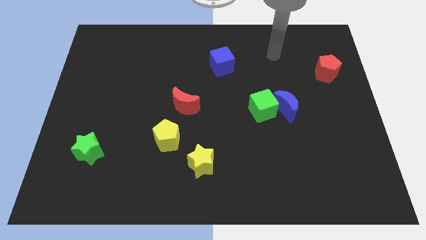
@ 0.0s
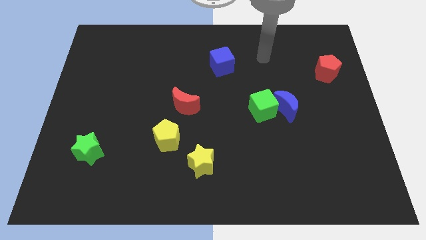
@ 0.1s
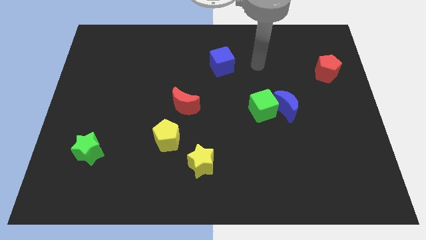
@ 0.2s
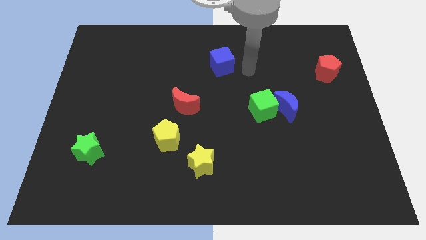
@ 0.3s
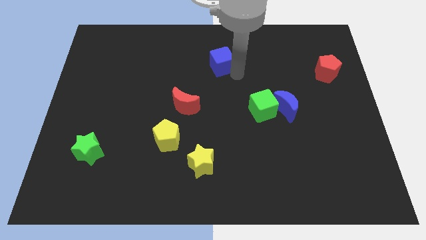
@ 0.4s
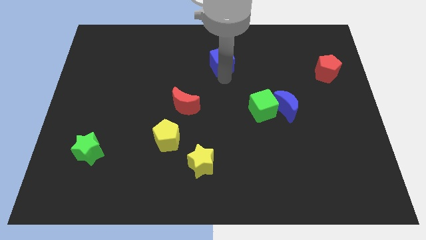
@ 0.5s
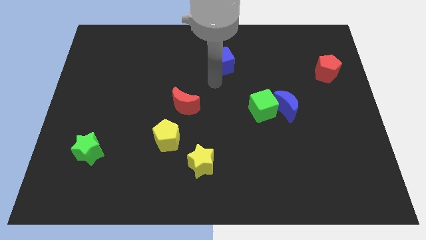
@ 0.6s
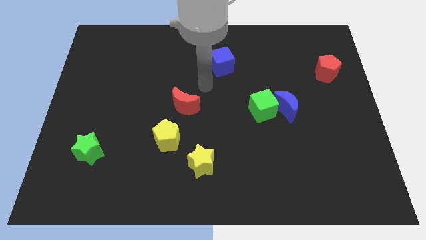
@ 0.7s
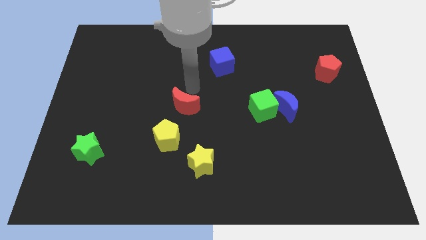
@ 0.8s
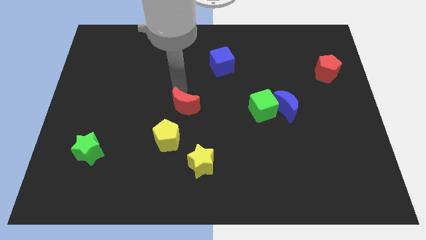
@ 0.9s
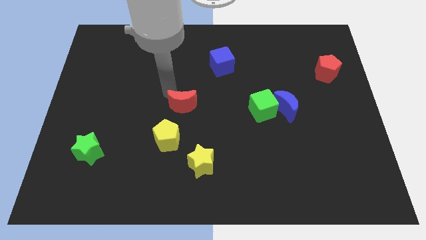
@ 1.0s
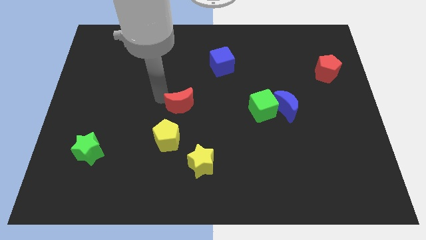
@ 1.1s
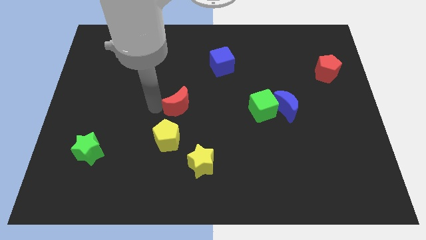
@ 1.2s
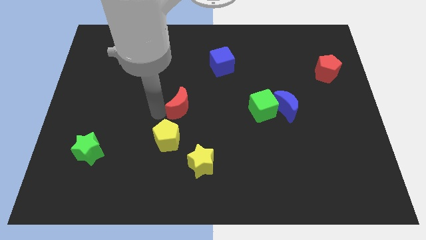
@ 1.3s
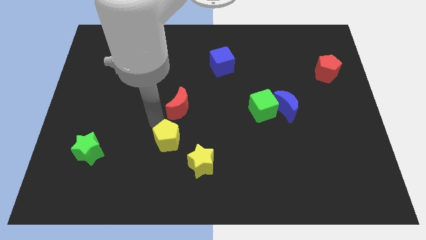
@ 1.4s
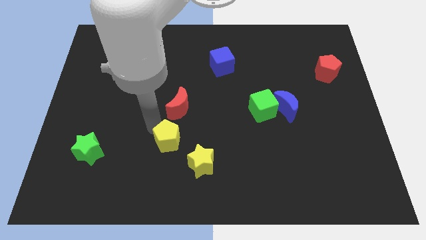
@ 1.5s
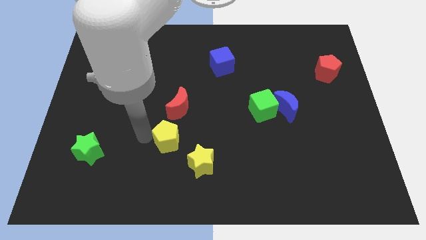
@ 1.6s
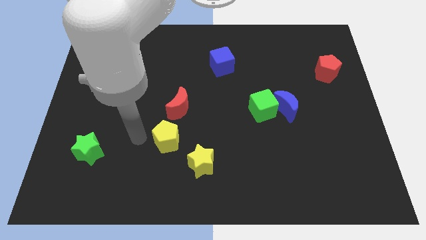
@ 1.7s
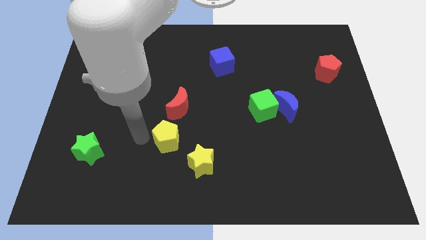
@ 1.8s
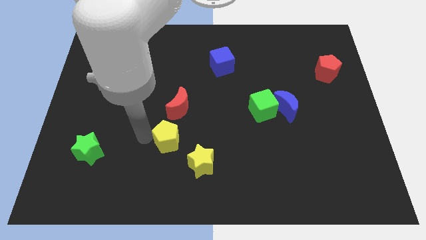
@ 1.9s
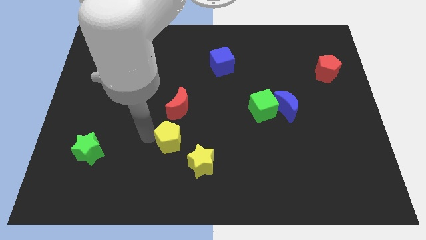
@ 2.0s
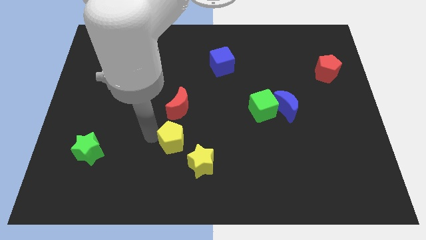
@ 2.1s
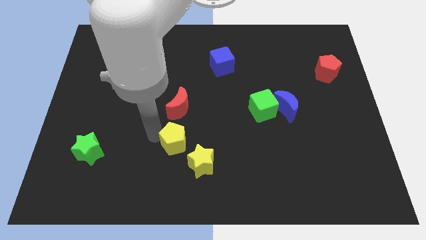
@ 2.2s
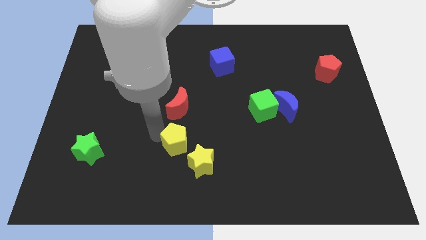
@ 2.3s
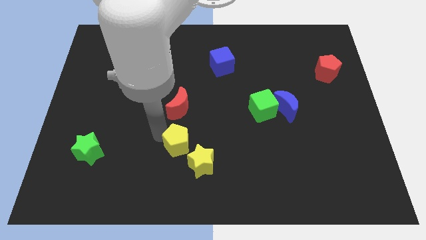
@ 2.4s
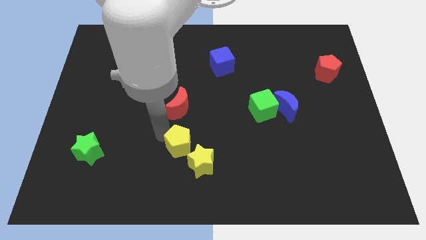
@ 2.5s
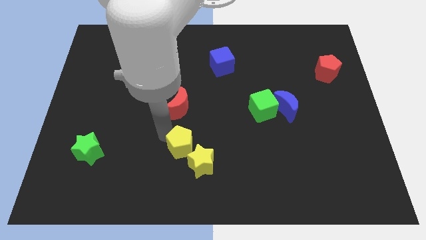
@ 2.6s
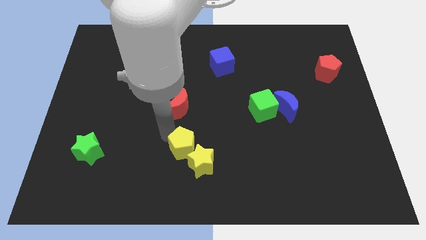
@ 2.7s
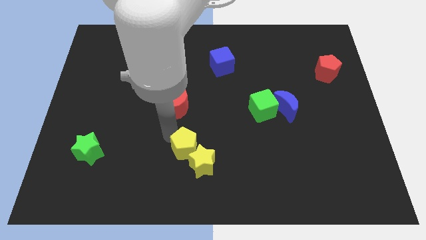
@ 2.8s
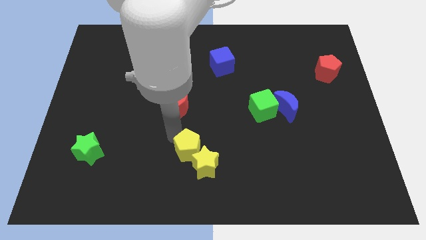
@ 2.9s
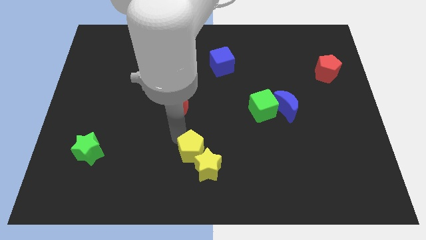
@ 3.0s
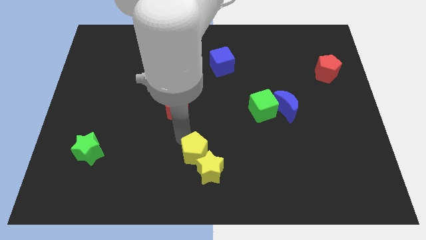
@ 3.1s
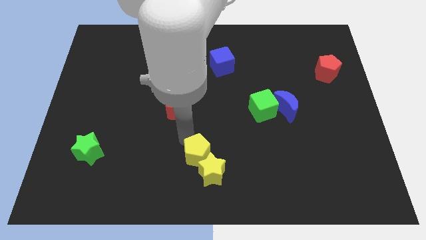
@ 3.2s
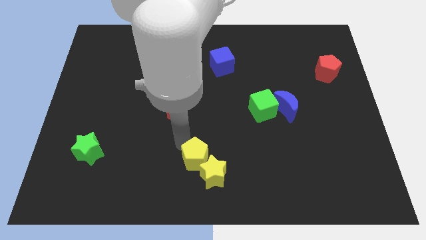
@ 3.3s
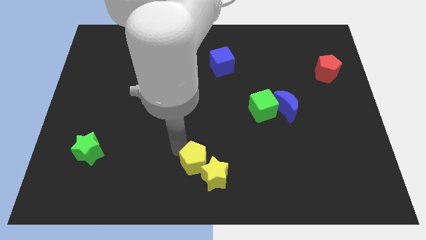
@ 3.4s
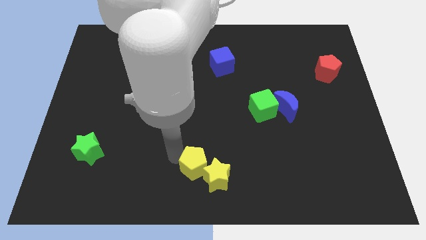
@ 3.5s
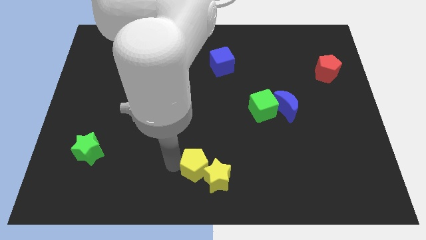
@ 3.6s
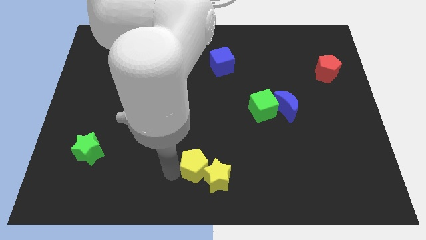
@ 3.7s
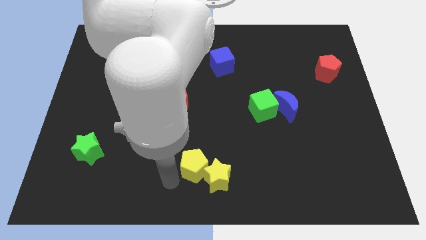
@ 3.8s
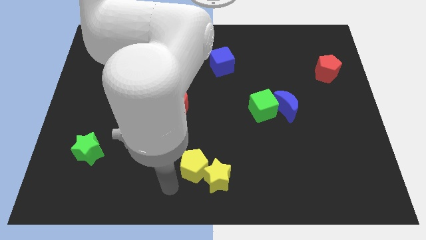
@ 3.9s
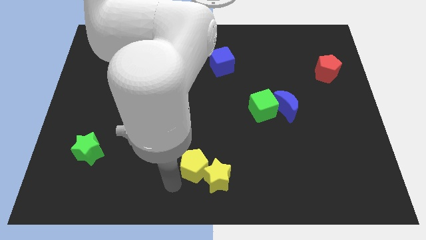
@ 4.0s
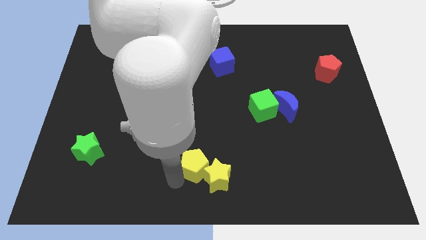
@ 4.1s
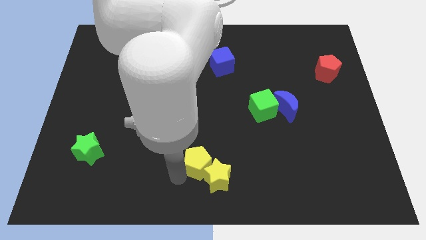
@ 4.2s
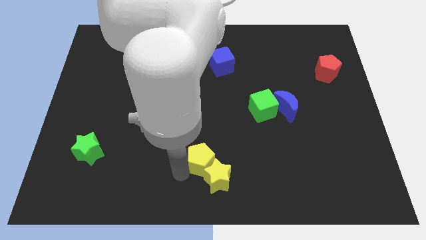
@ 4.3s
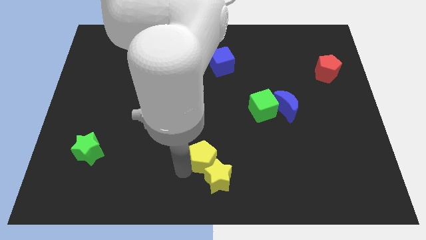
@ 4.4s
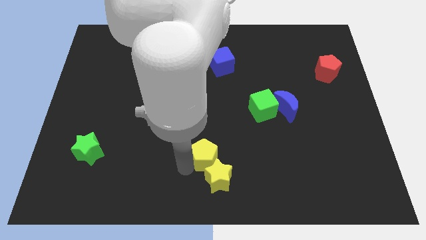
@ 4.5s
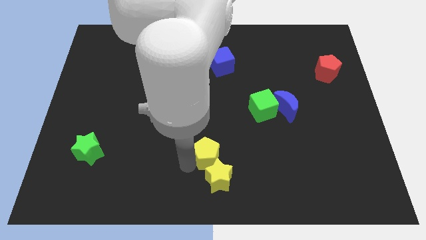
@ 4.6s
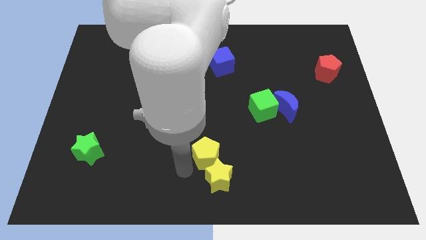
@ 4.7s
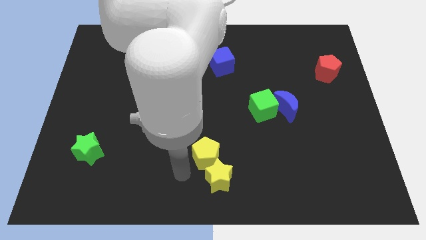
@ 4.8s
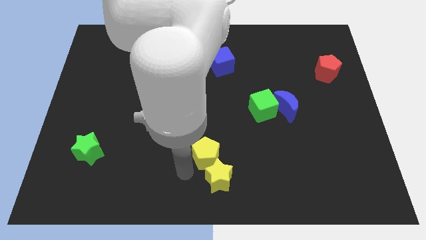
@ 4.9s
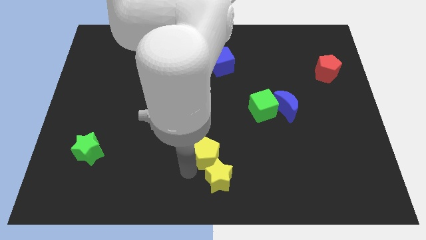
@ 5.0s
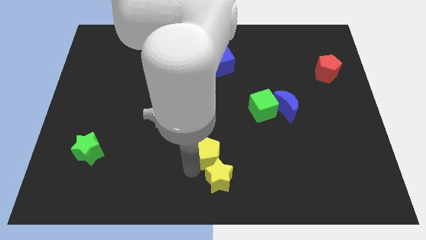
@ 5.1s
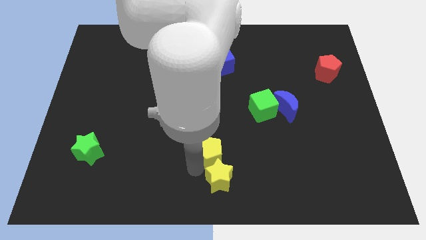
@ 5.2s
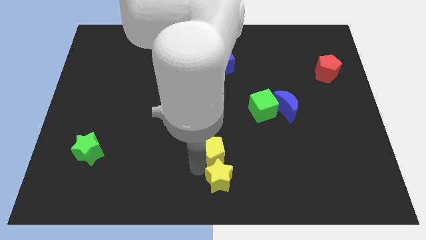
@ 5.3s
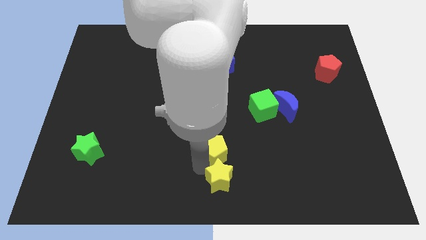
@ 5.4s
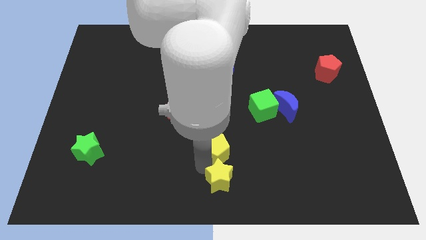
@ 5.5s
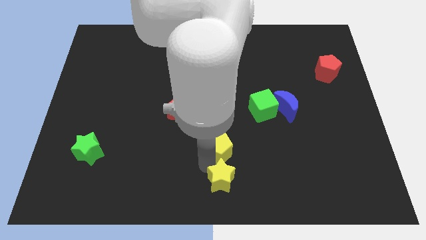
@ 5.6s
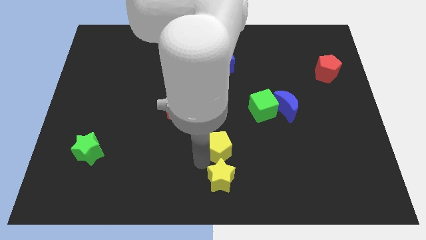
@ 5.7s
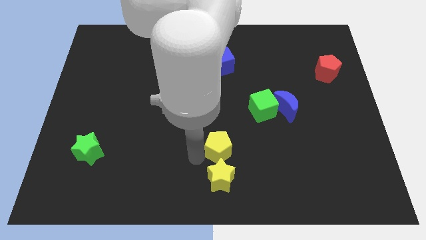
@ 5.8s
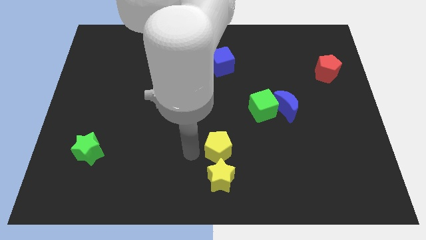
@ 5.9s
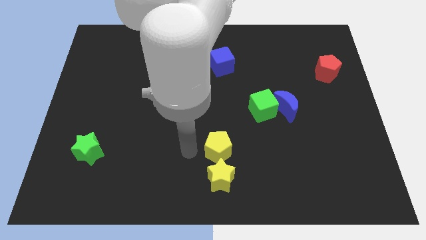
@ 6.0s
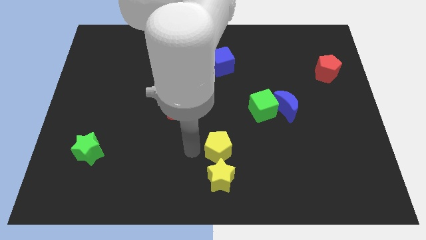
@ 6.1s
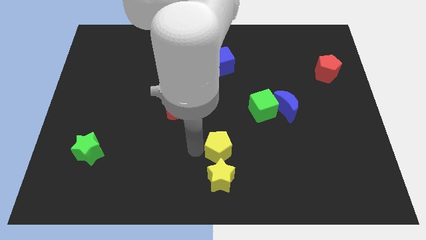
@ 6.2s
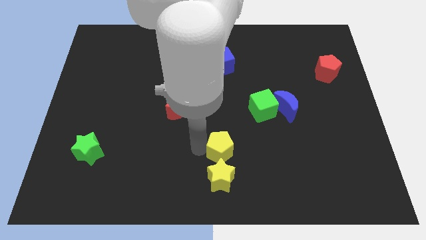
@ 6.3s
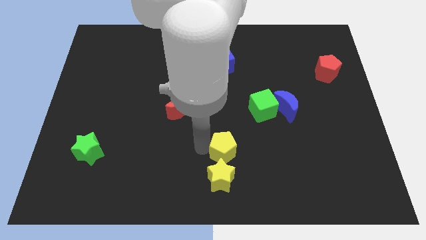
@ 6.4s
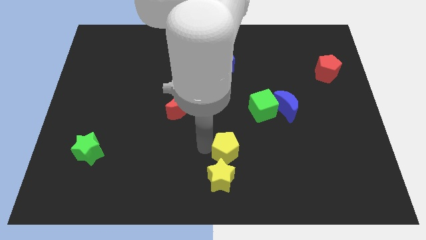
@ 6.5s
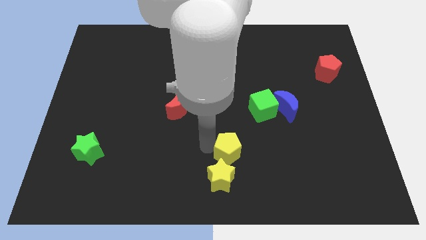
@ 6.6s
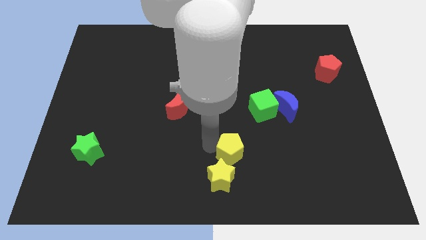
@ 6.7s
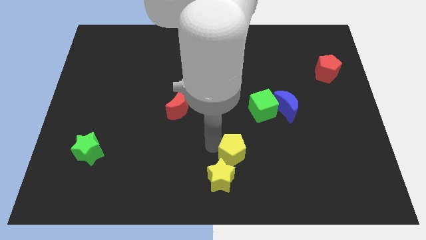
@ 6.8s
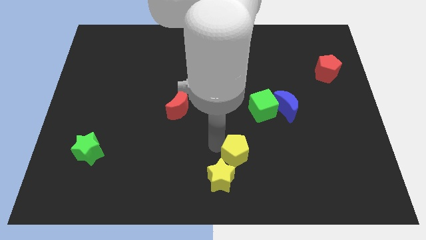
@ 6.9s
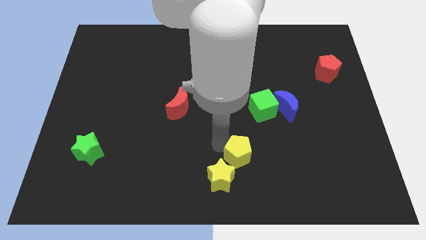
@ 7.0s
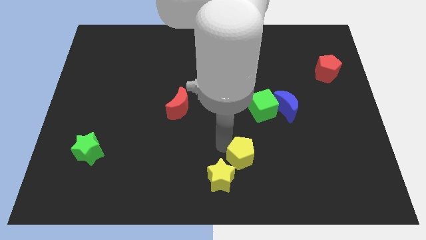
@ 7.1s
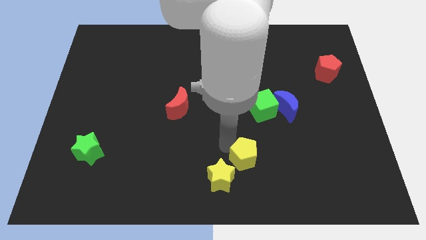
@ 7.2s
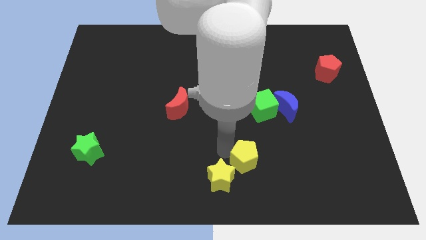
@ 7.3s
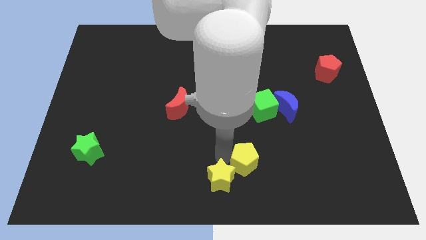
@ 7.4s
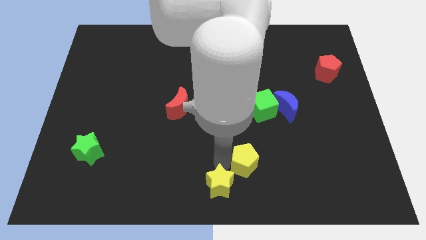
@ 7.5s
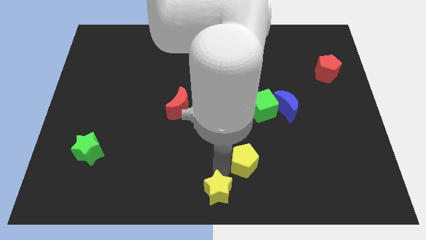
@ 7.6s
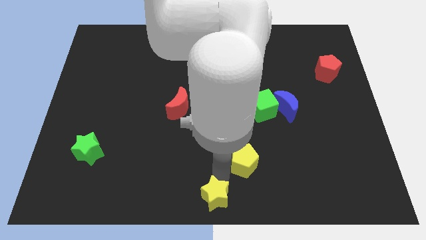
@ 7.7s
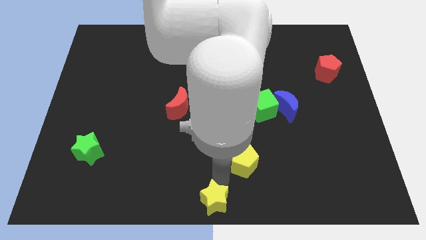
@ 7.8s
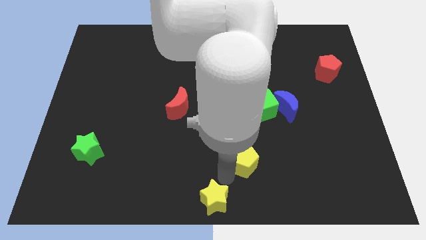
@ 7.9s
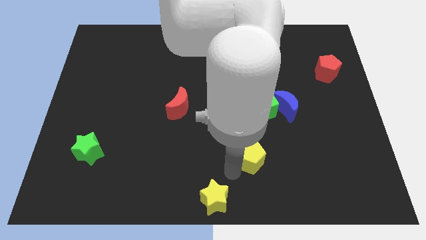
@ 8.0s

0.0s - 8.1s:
move the yellow pentagon to the bottom side of the green cube
